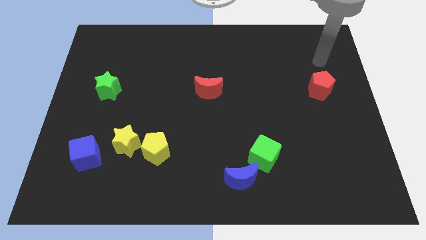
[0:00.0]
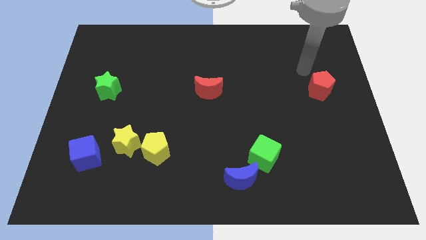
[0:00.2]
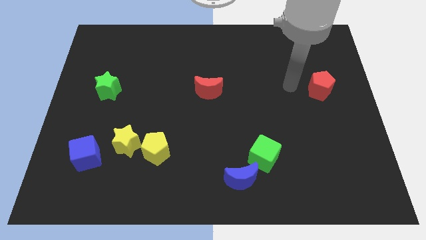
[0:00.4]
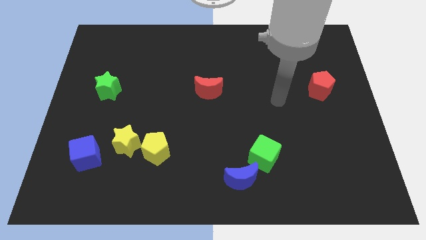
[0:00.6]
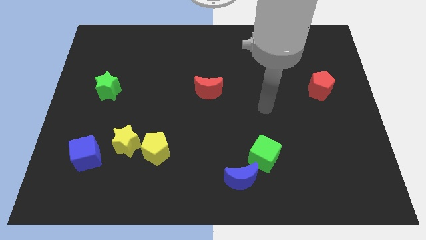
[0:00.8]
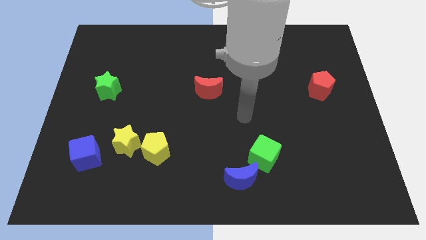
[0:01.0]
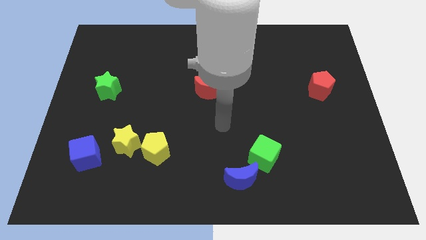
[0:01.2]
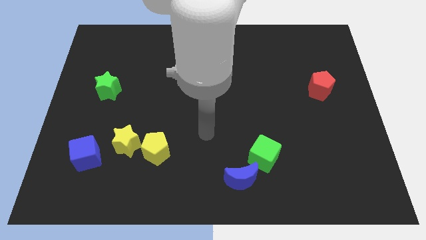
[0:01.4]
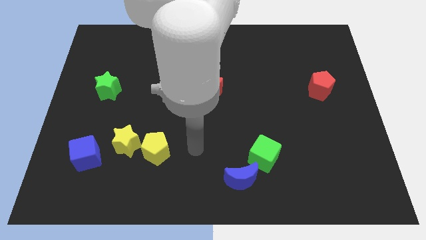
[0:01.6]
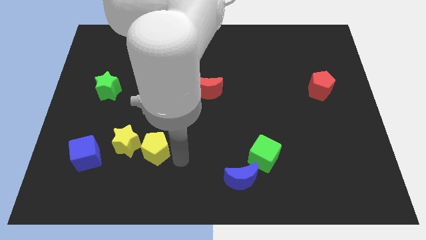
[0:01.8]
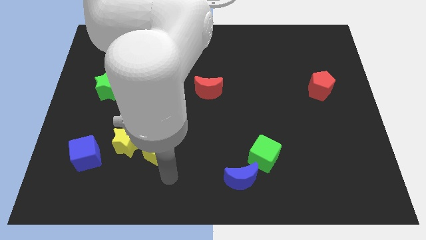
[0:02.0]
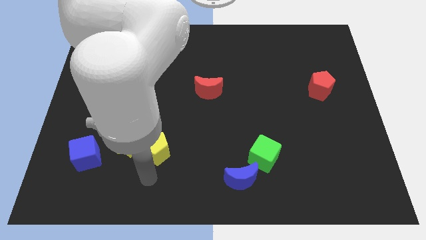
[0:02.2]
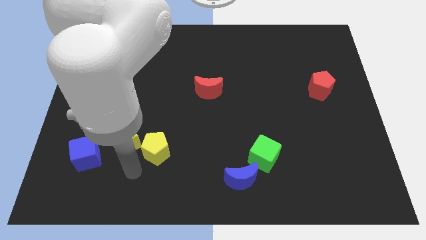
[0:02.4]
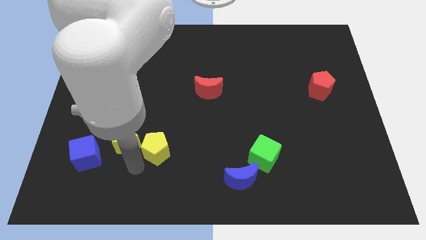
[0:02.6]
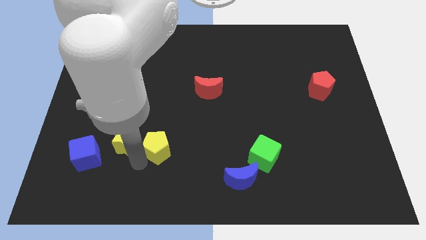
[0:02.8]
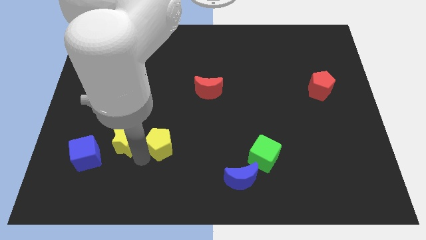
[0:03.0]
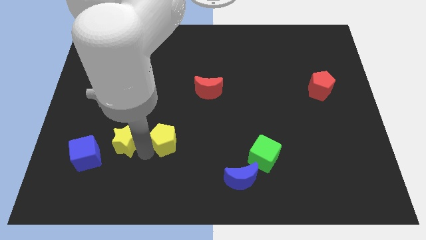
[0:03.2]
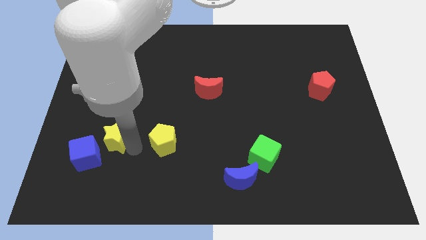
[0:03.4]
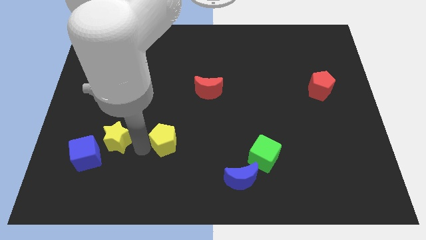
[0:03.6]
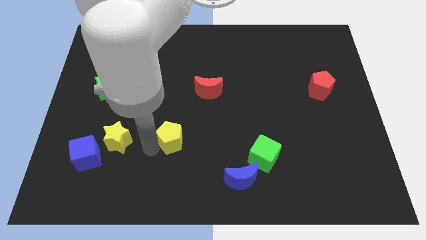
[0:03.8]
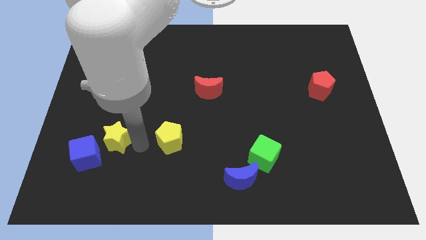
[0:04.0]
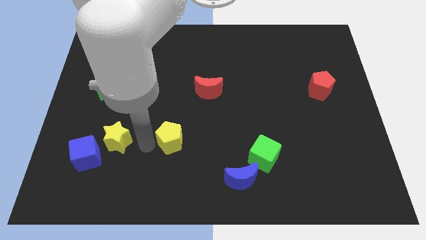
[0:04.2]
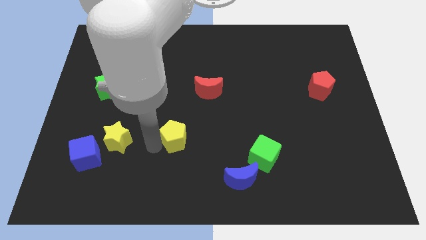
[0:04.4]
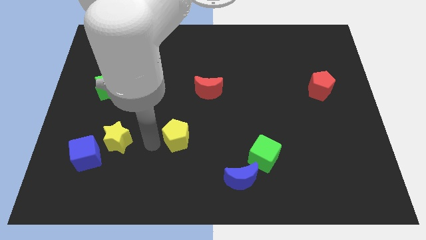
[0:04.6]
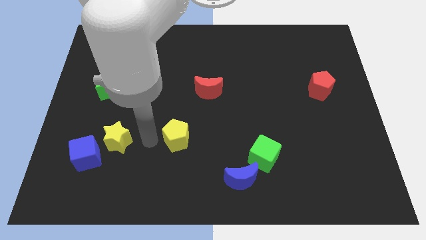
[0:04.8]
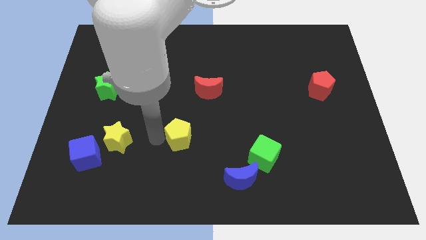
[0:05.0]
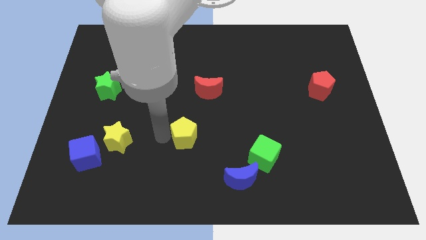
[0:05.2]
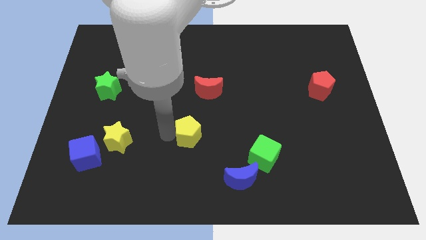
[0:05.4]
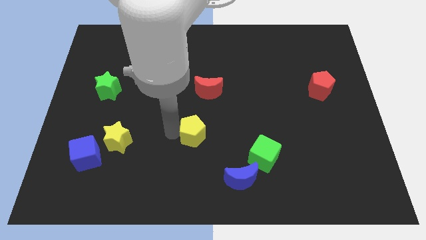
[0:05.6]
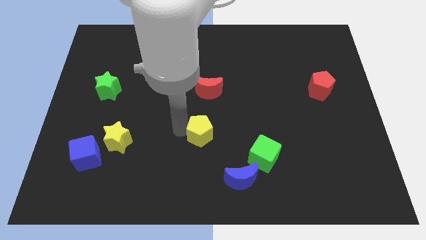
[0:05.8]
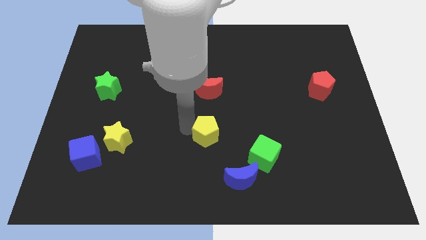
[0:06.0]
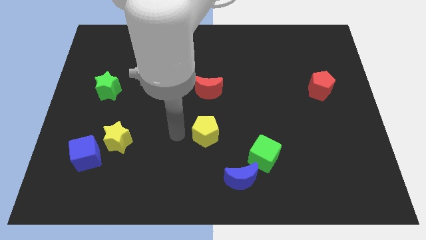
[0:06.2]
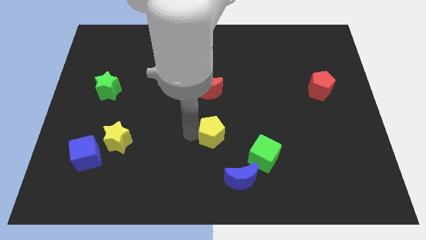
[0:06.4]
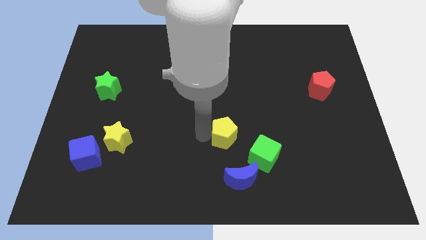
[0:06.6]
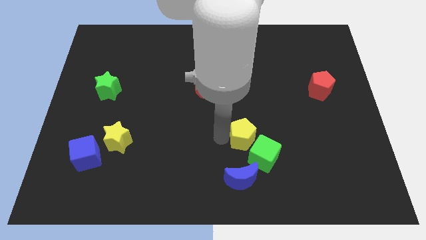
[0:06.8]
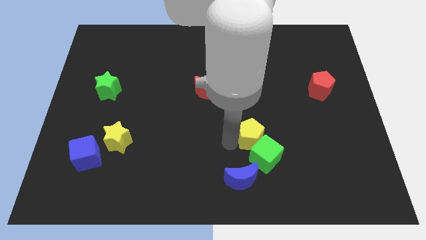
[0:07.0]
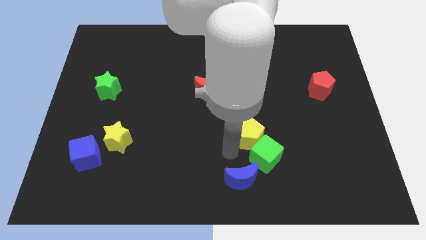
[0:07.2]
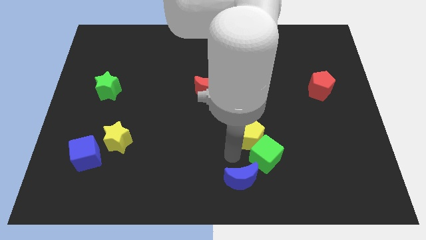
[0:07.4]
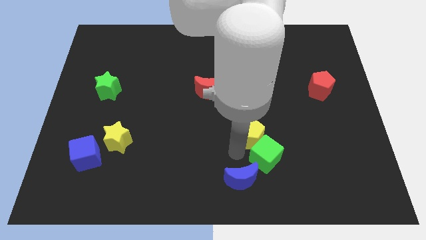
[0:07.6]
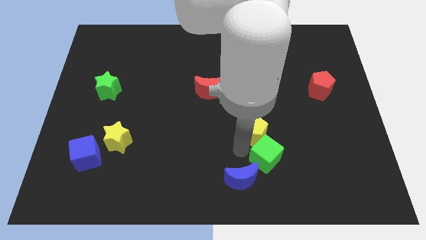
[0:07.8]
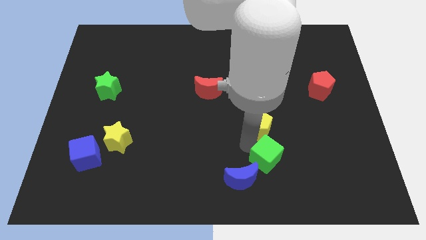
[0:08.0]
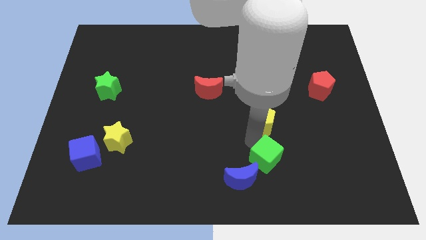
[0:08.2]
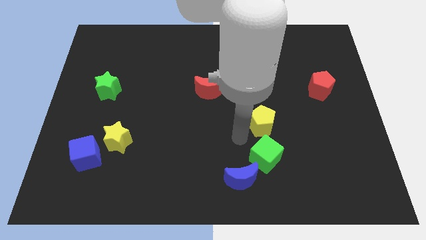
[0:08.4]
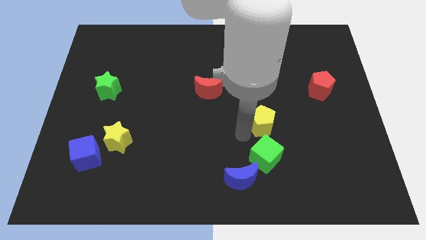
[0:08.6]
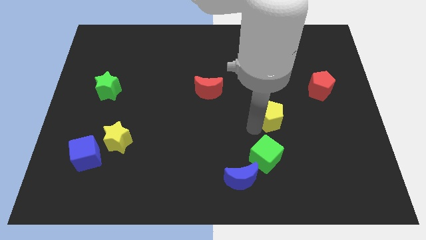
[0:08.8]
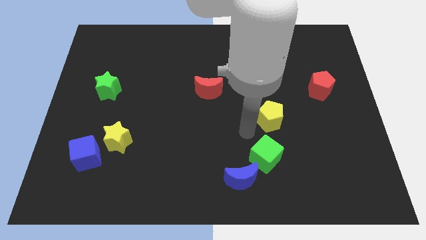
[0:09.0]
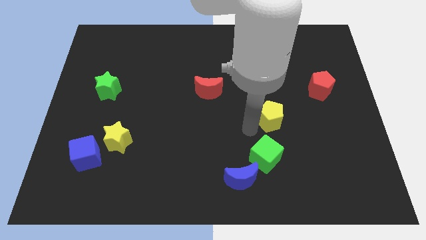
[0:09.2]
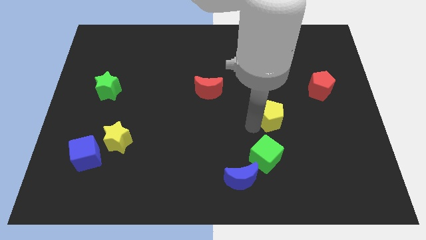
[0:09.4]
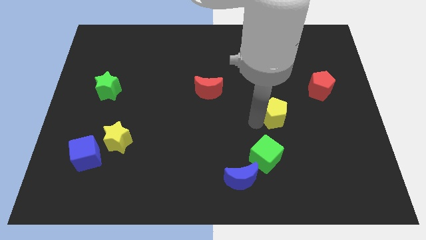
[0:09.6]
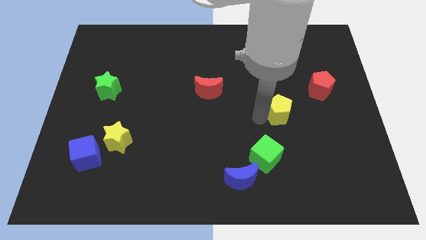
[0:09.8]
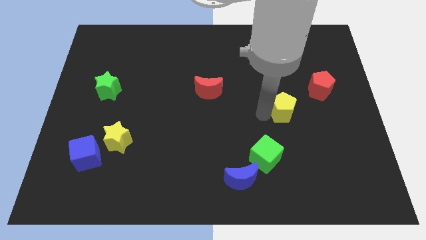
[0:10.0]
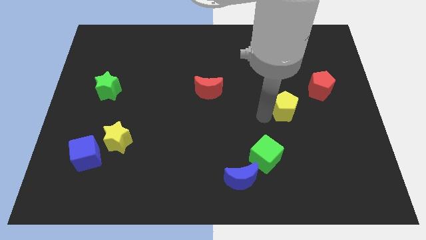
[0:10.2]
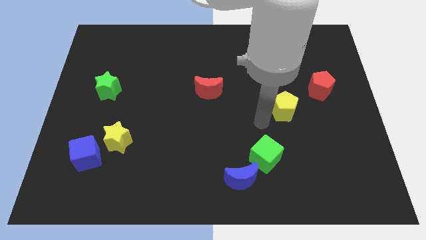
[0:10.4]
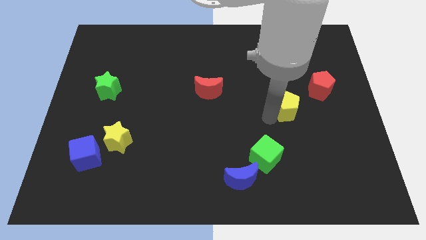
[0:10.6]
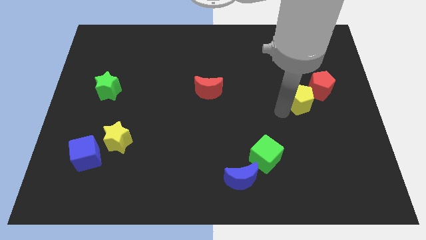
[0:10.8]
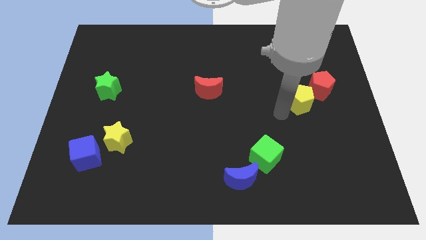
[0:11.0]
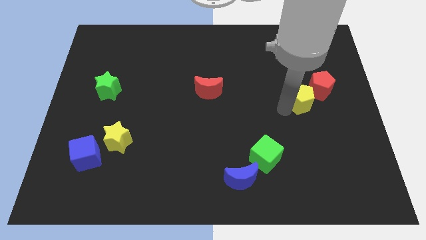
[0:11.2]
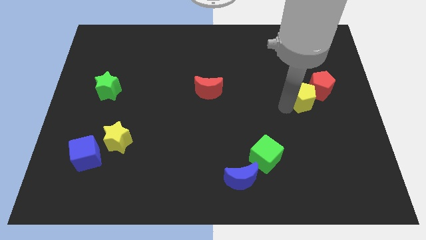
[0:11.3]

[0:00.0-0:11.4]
slide the yellow pentagon to the red pentagon
